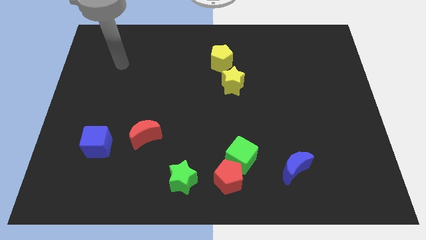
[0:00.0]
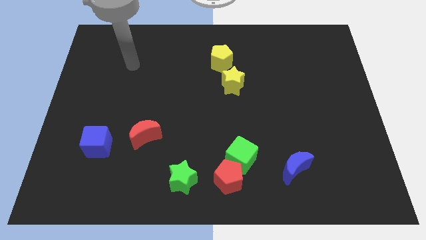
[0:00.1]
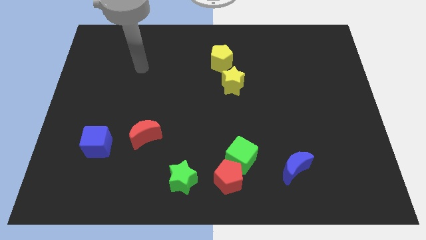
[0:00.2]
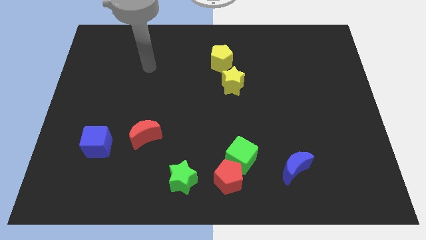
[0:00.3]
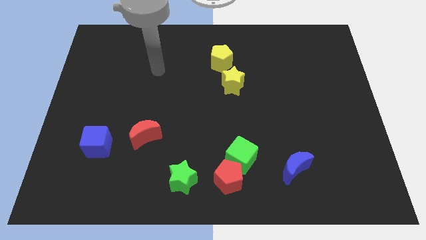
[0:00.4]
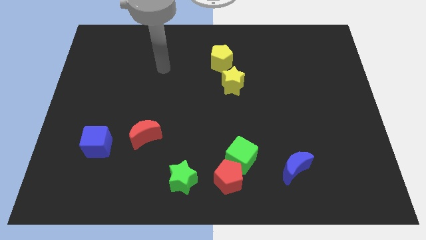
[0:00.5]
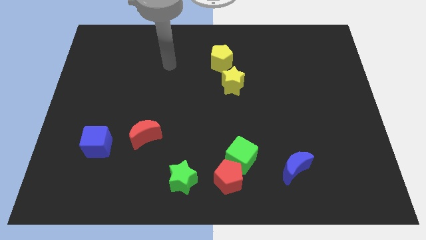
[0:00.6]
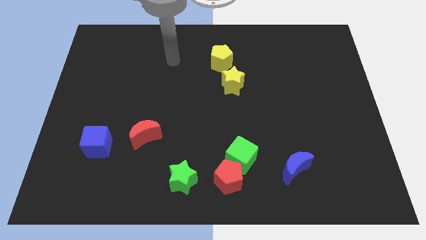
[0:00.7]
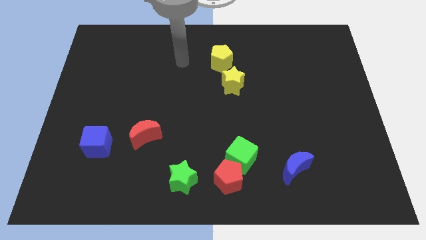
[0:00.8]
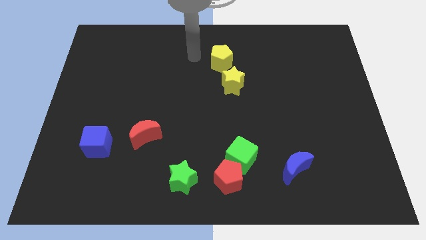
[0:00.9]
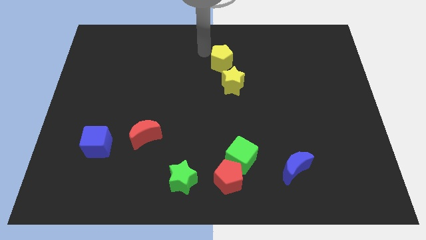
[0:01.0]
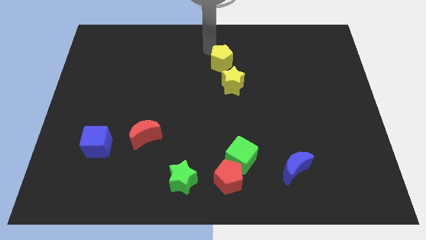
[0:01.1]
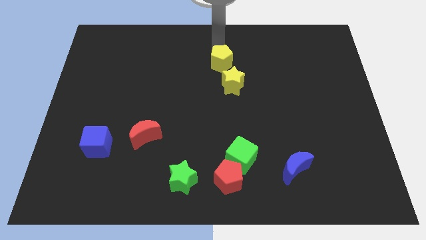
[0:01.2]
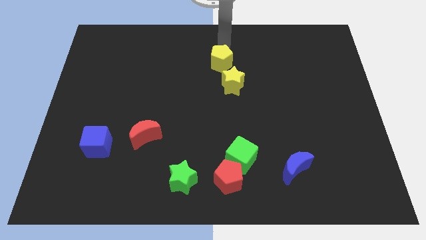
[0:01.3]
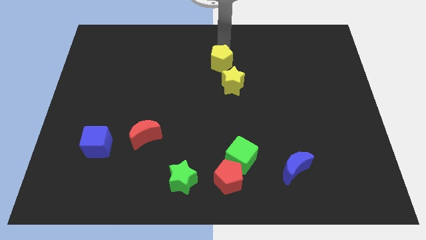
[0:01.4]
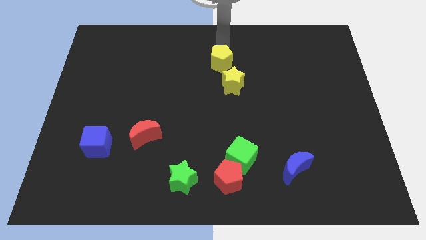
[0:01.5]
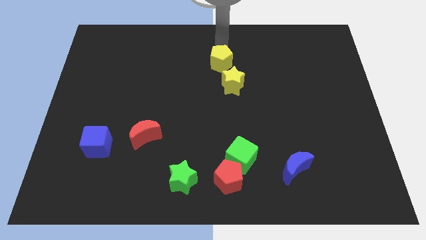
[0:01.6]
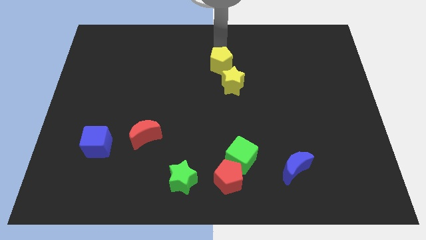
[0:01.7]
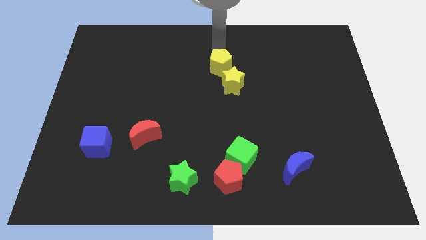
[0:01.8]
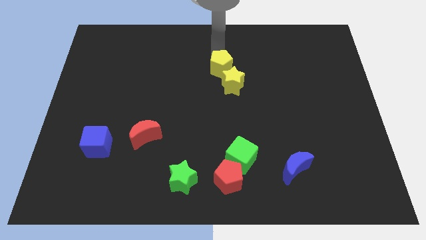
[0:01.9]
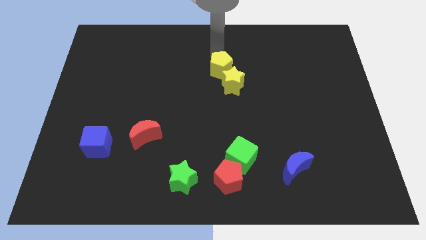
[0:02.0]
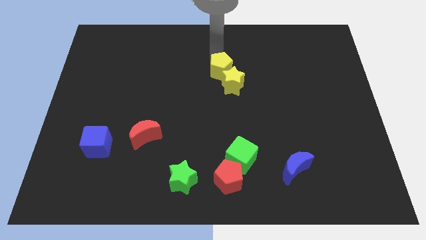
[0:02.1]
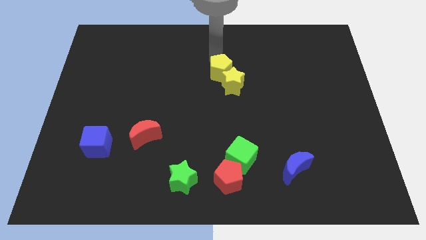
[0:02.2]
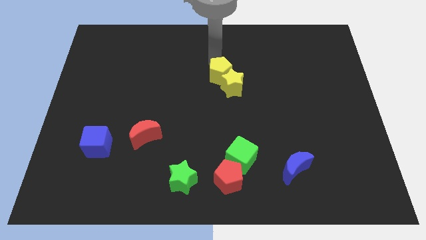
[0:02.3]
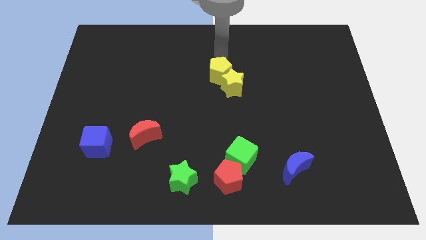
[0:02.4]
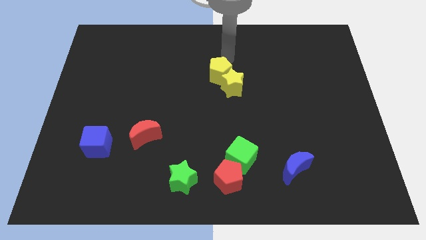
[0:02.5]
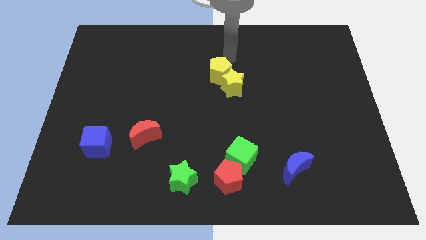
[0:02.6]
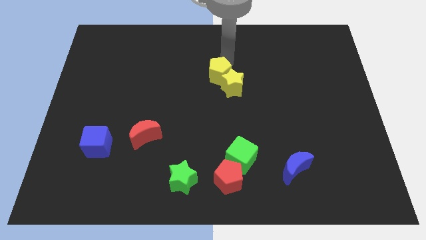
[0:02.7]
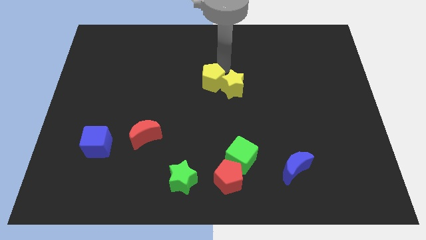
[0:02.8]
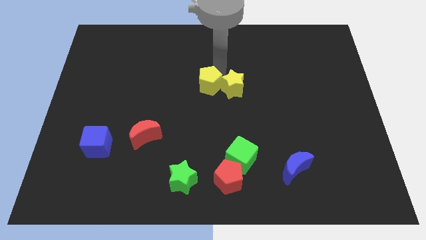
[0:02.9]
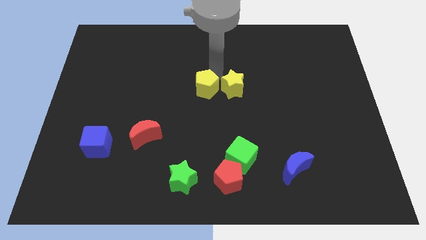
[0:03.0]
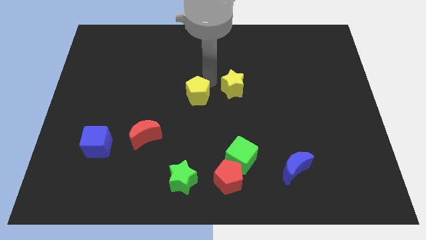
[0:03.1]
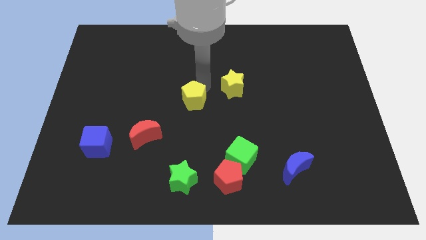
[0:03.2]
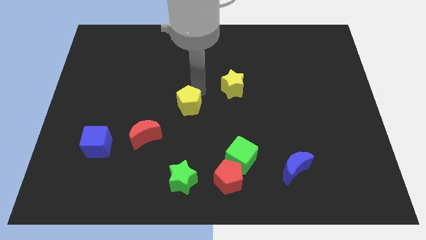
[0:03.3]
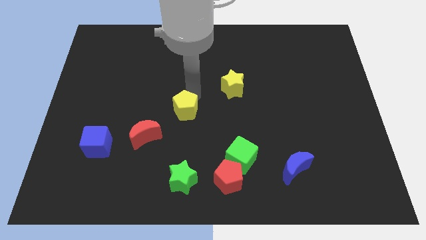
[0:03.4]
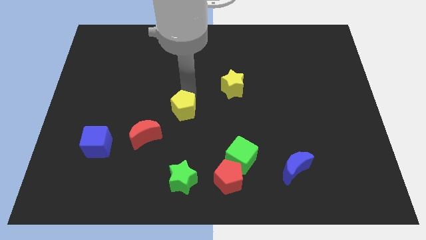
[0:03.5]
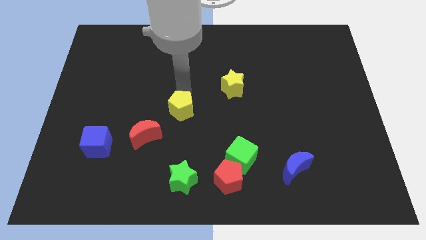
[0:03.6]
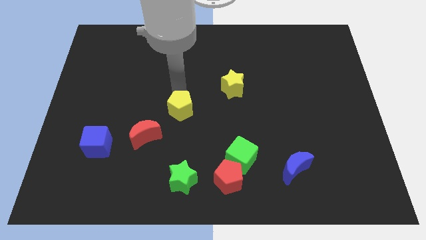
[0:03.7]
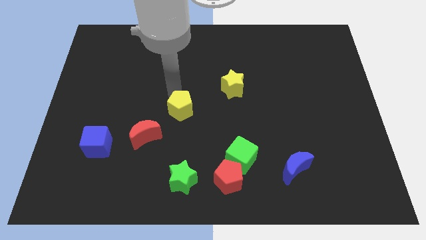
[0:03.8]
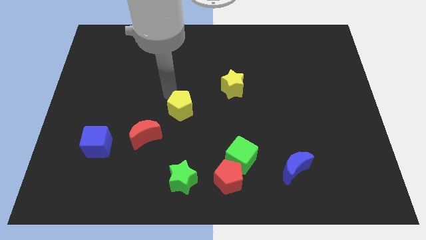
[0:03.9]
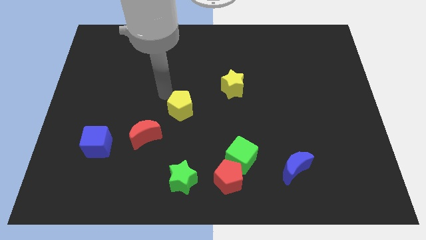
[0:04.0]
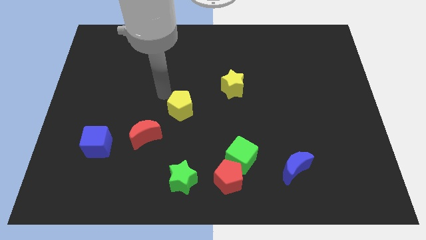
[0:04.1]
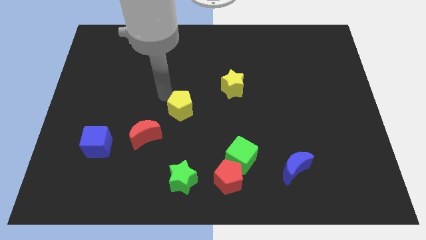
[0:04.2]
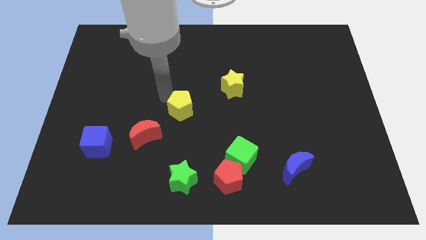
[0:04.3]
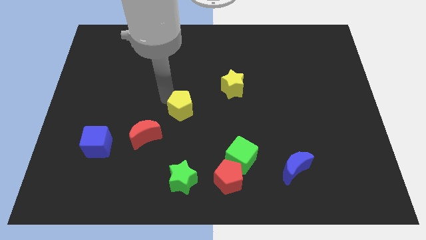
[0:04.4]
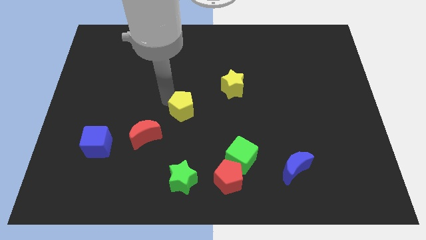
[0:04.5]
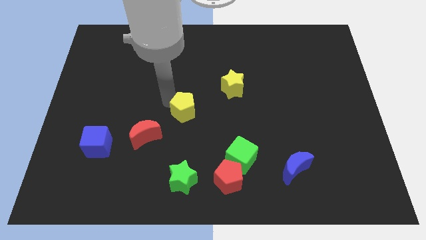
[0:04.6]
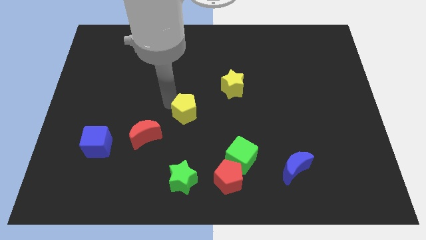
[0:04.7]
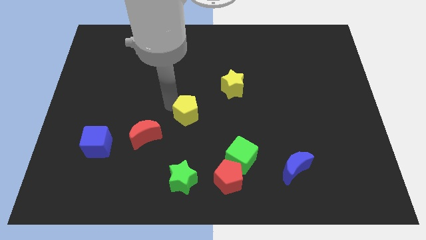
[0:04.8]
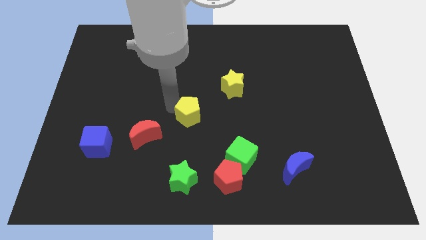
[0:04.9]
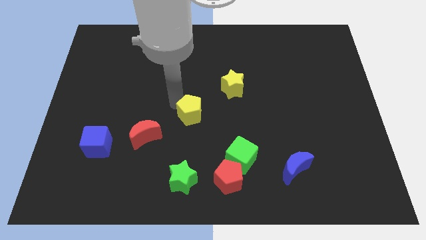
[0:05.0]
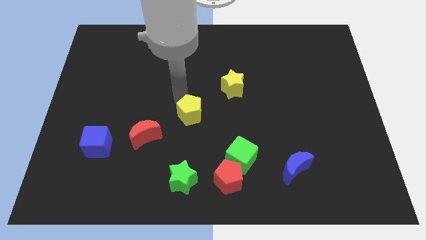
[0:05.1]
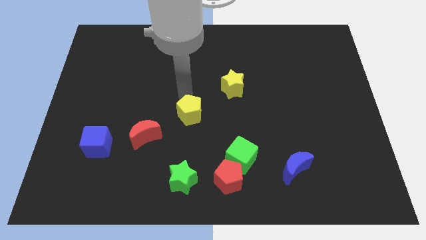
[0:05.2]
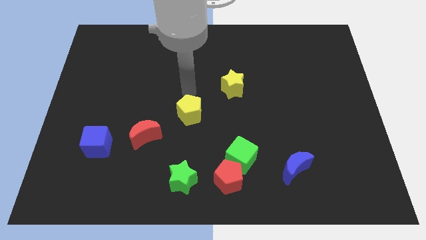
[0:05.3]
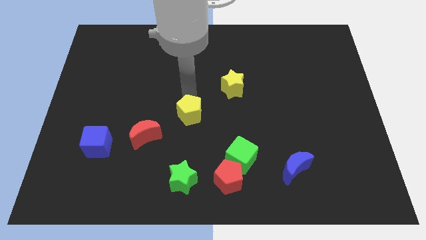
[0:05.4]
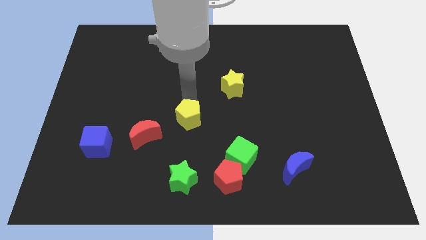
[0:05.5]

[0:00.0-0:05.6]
move the yellow pentagon to the right of the red moon

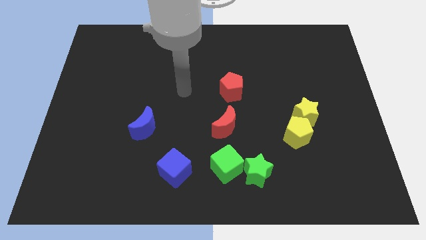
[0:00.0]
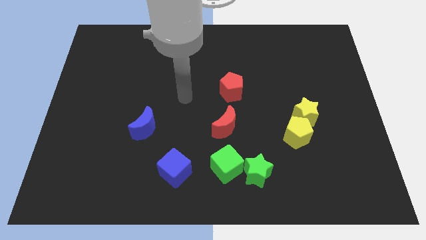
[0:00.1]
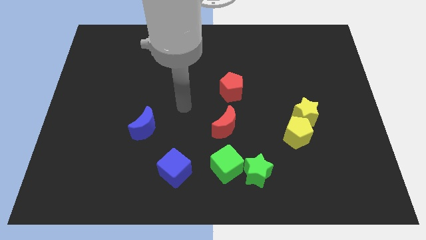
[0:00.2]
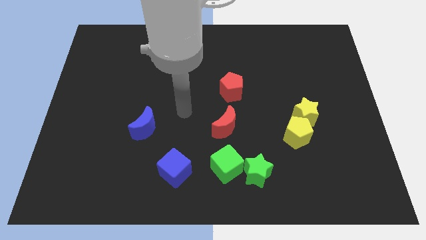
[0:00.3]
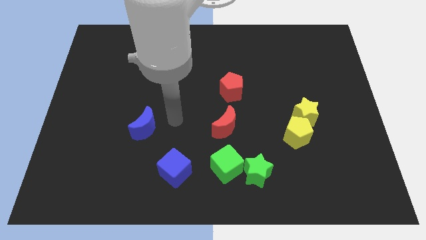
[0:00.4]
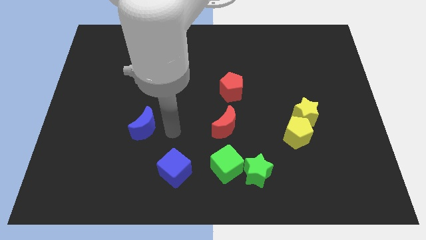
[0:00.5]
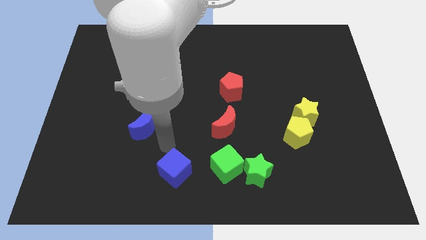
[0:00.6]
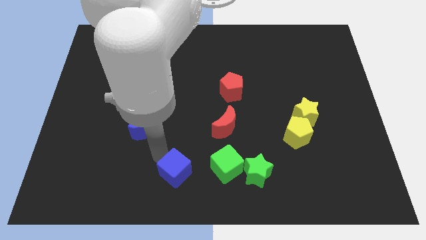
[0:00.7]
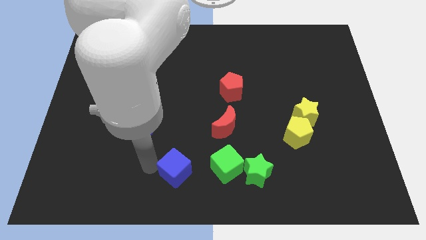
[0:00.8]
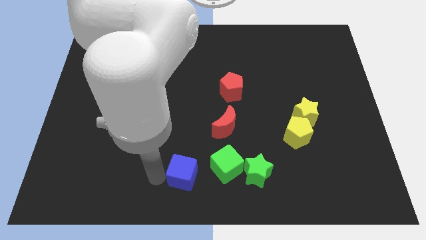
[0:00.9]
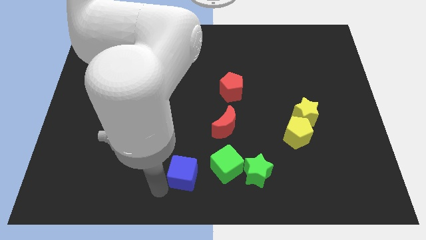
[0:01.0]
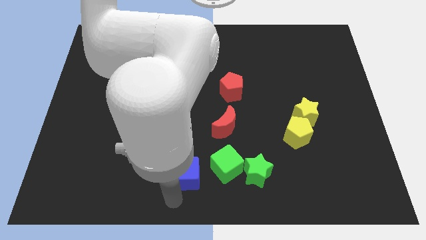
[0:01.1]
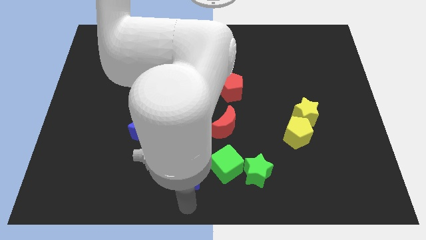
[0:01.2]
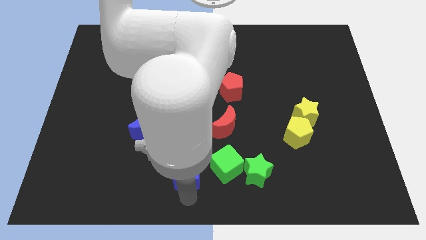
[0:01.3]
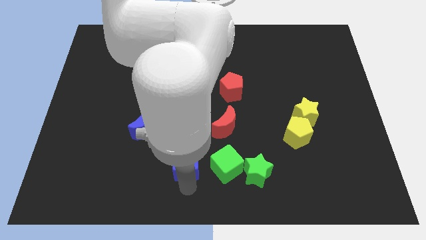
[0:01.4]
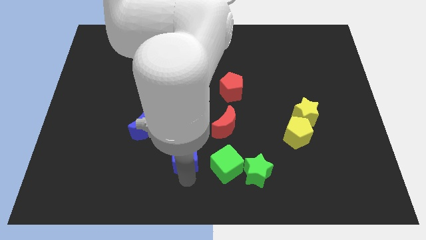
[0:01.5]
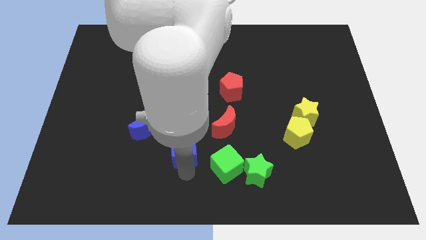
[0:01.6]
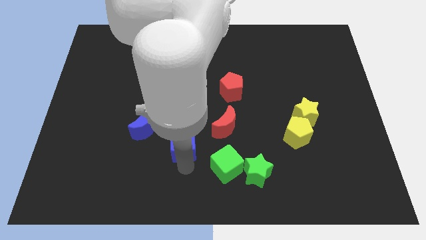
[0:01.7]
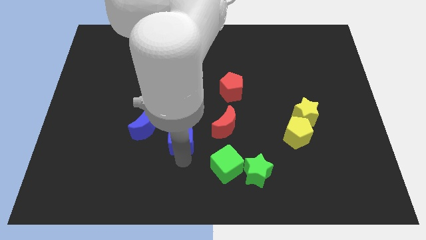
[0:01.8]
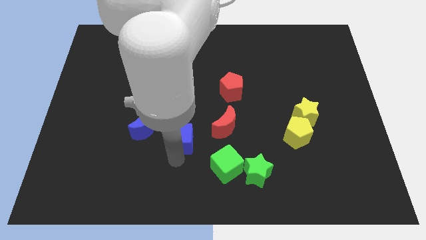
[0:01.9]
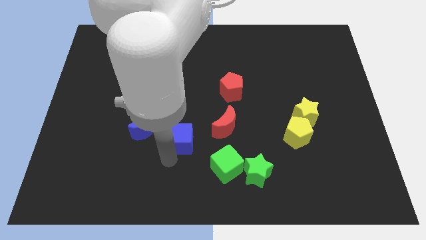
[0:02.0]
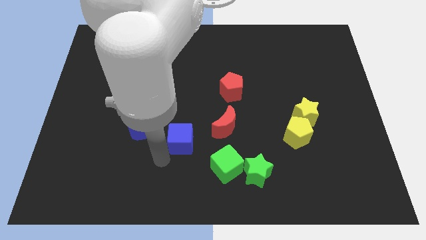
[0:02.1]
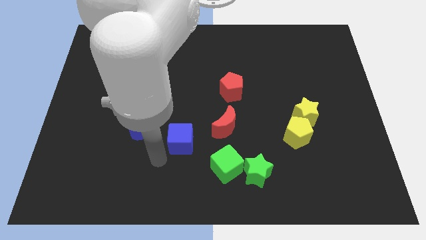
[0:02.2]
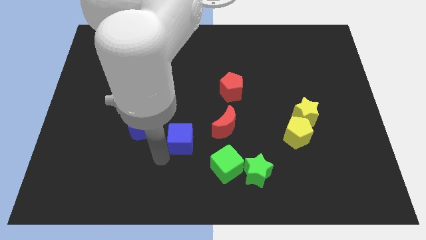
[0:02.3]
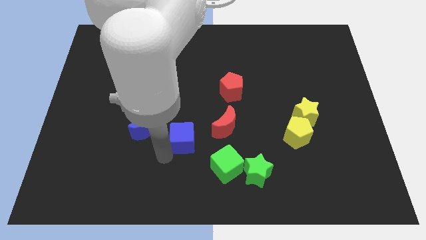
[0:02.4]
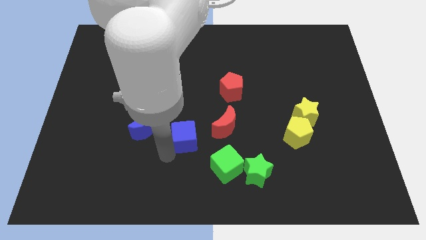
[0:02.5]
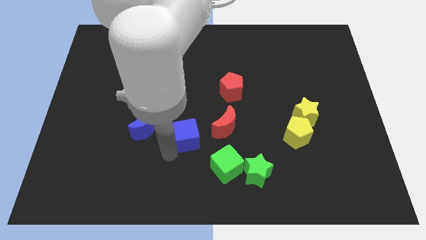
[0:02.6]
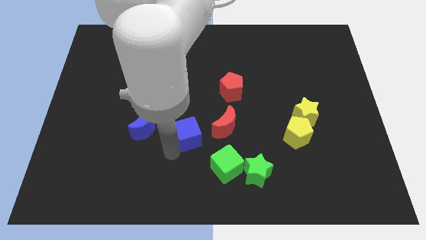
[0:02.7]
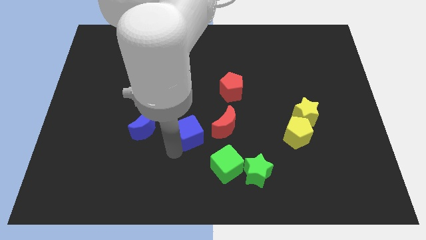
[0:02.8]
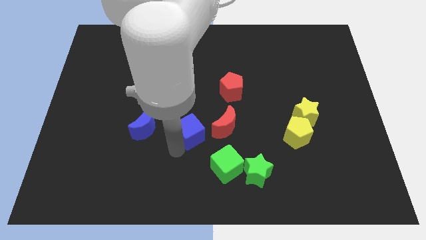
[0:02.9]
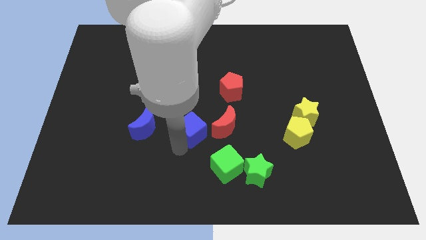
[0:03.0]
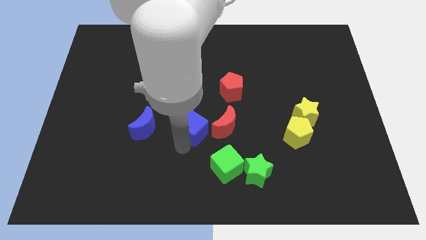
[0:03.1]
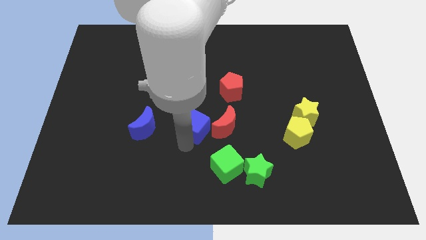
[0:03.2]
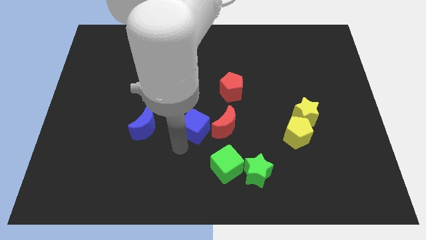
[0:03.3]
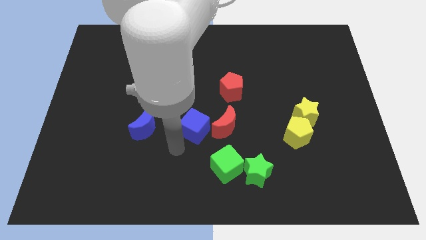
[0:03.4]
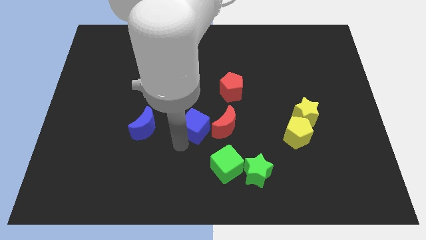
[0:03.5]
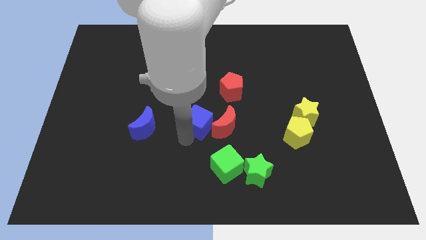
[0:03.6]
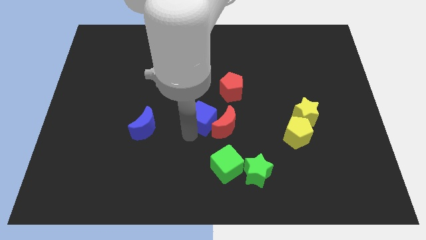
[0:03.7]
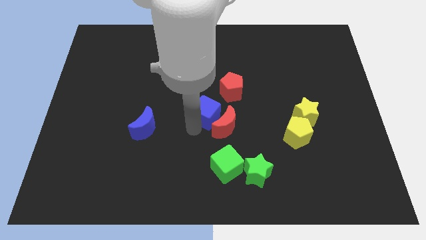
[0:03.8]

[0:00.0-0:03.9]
slide the blue cube above the green cube
